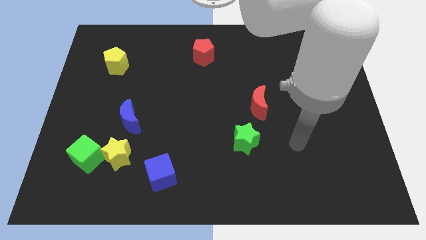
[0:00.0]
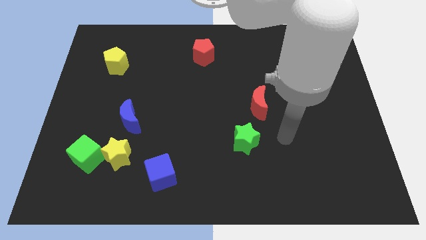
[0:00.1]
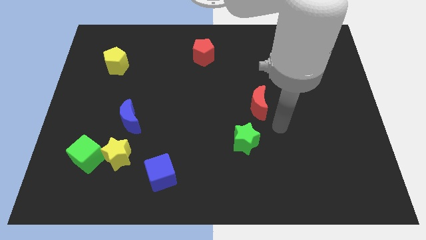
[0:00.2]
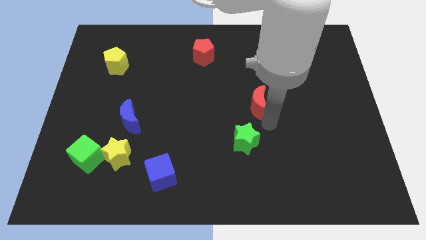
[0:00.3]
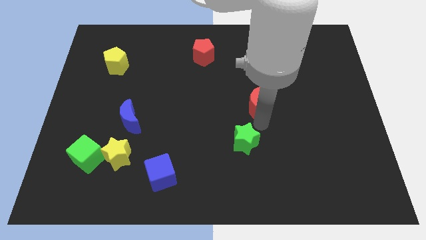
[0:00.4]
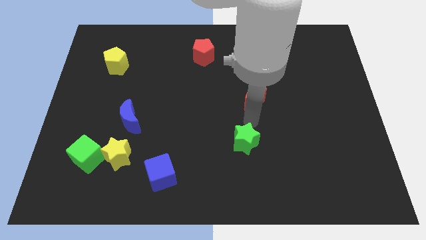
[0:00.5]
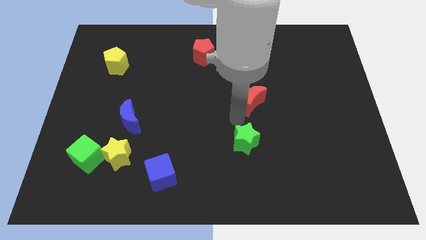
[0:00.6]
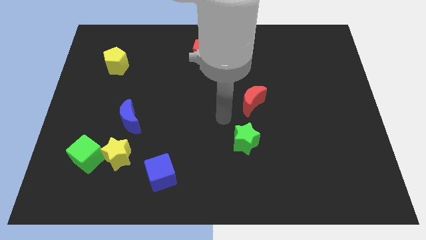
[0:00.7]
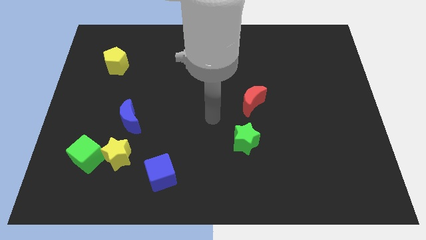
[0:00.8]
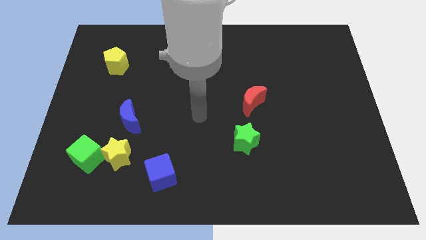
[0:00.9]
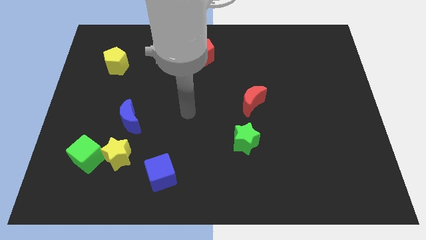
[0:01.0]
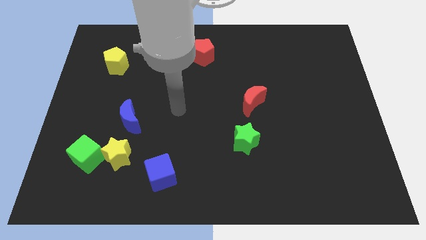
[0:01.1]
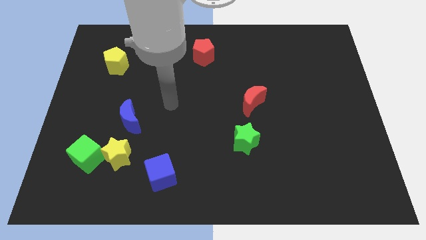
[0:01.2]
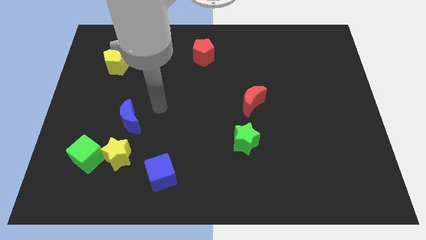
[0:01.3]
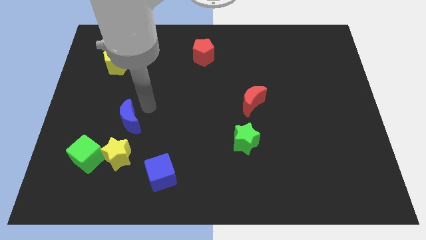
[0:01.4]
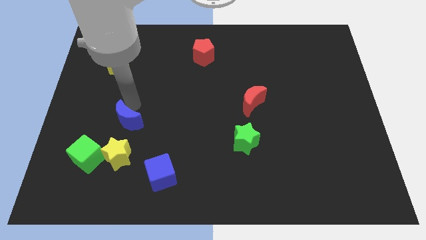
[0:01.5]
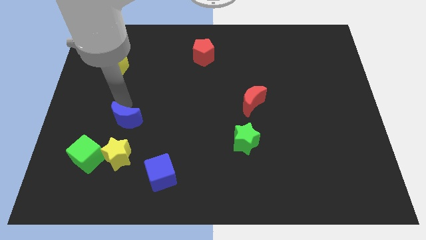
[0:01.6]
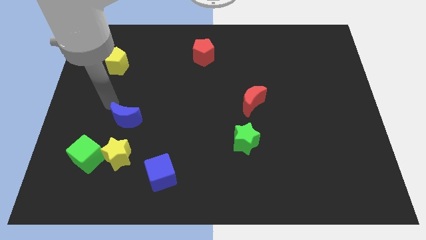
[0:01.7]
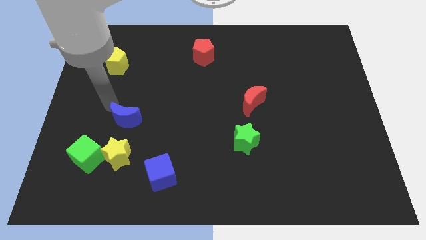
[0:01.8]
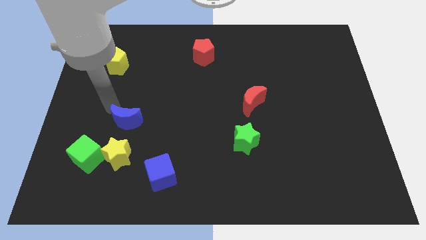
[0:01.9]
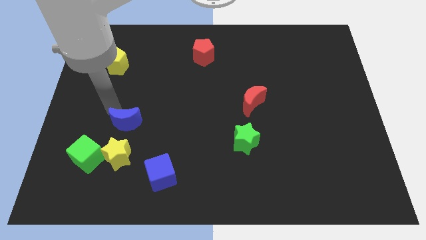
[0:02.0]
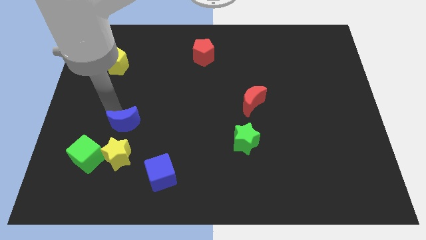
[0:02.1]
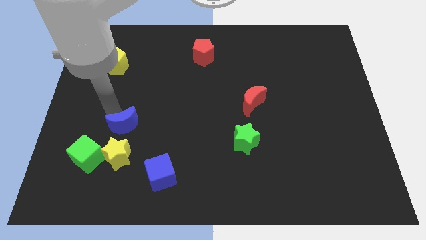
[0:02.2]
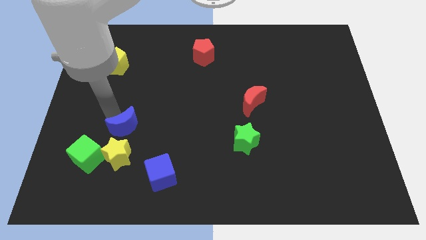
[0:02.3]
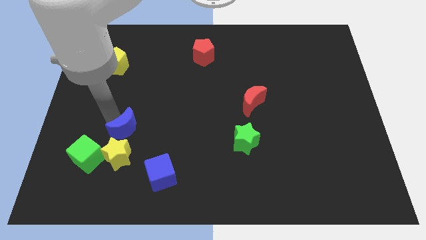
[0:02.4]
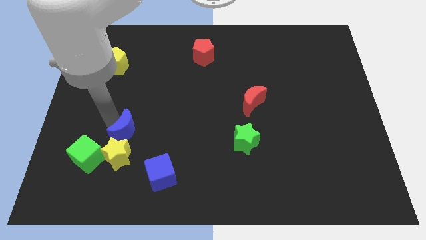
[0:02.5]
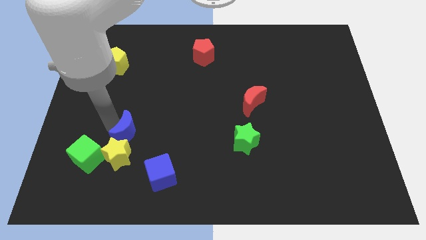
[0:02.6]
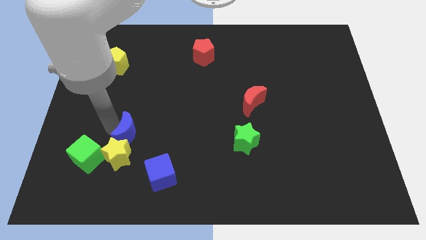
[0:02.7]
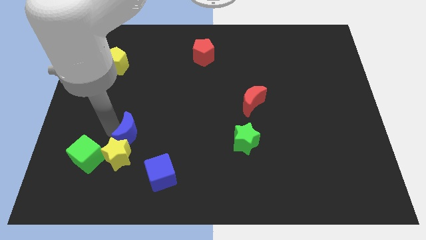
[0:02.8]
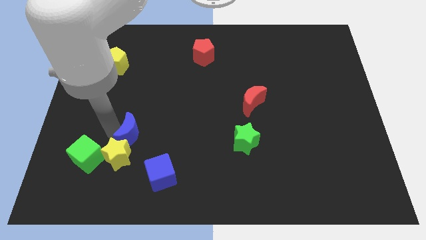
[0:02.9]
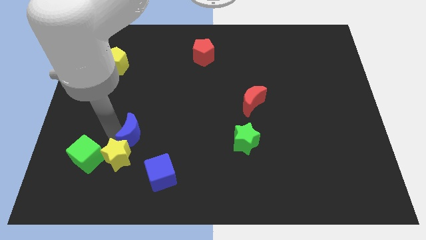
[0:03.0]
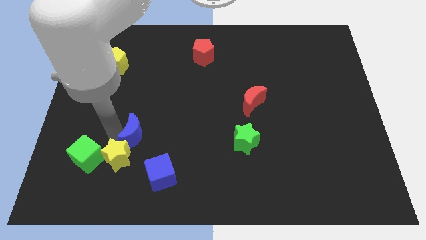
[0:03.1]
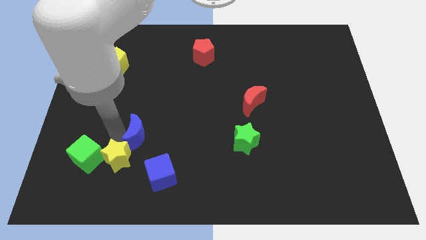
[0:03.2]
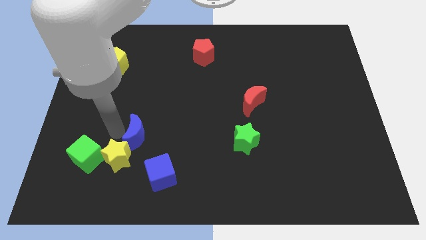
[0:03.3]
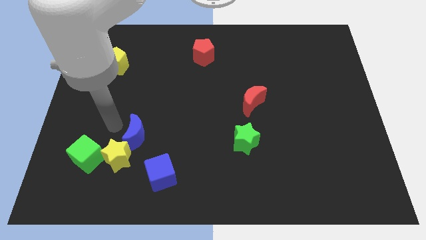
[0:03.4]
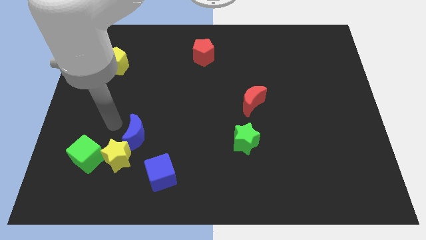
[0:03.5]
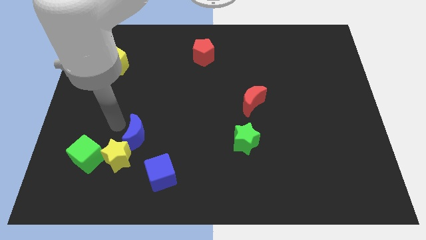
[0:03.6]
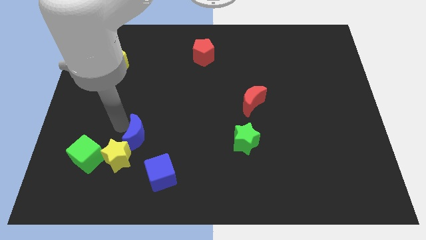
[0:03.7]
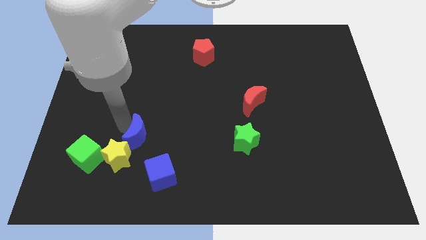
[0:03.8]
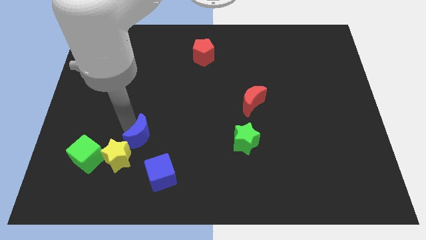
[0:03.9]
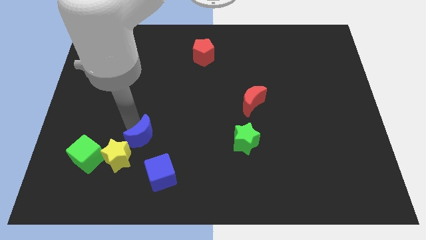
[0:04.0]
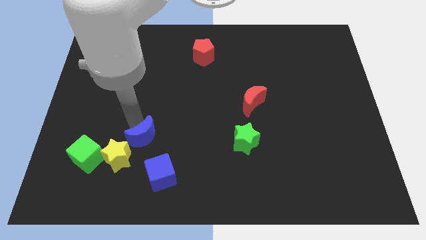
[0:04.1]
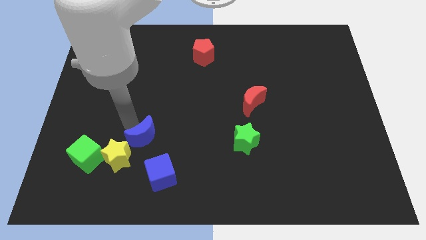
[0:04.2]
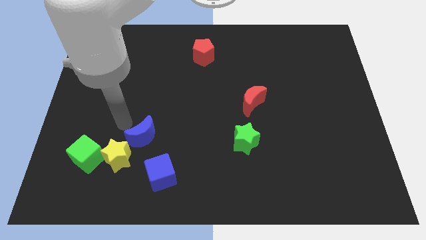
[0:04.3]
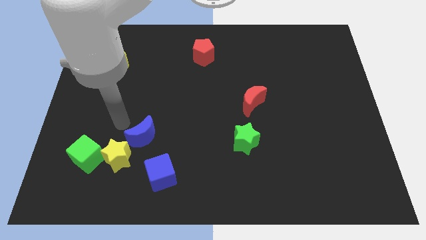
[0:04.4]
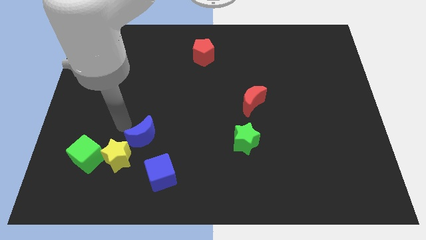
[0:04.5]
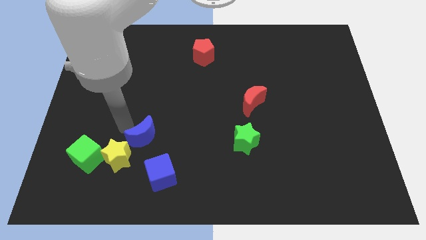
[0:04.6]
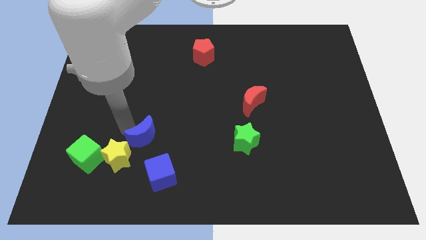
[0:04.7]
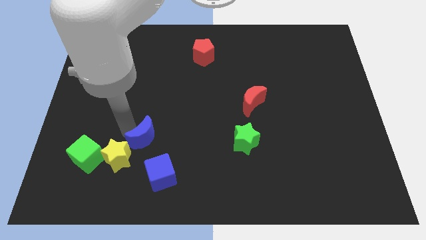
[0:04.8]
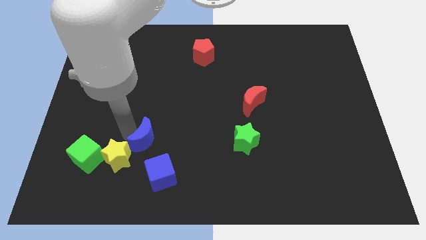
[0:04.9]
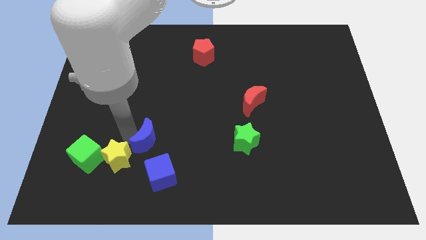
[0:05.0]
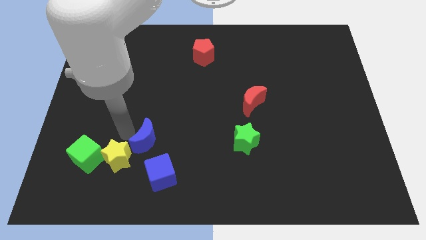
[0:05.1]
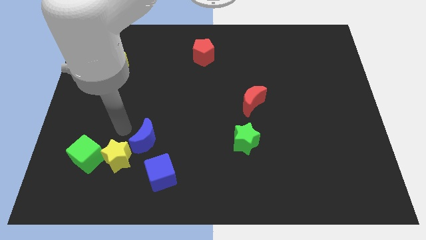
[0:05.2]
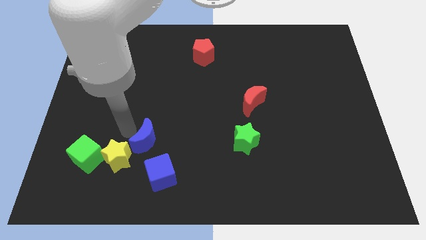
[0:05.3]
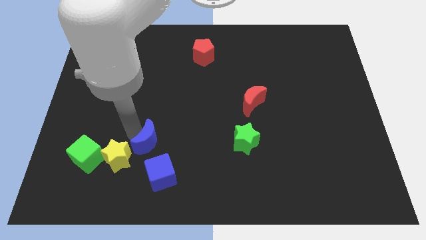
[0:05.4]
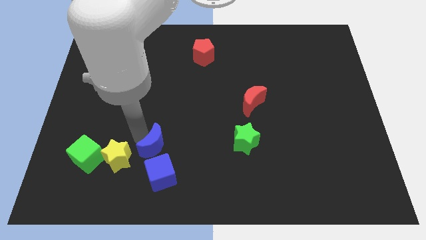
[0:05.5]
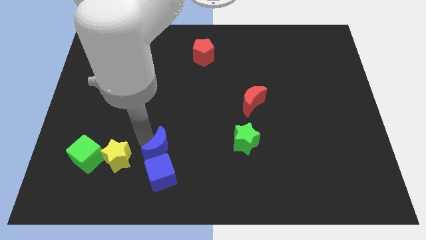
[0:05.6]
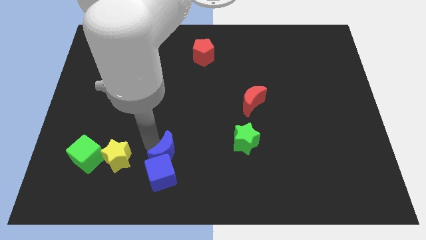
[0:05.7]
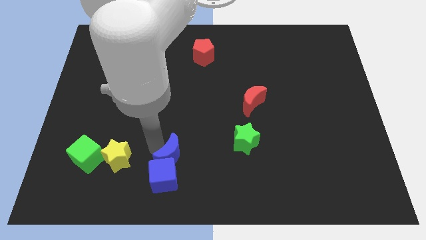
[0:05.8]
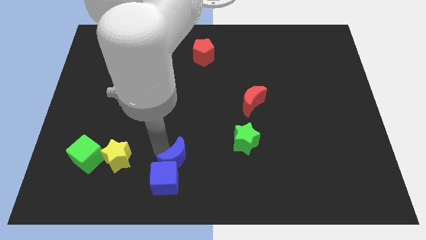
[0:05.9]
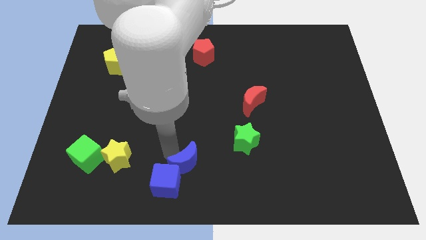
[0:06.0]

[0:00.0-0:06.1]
move the blue moon to the bottom side

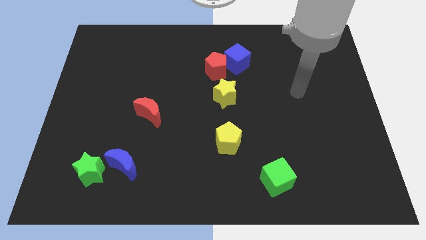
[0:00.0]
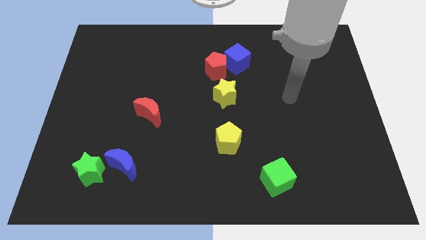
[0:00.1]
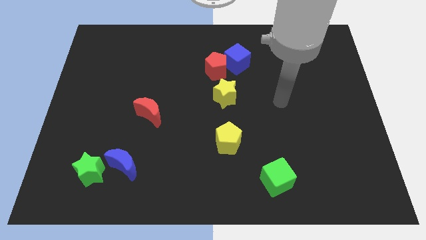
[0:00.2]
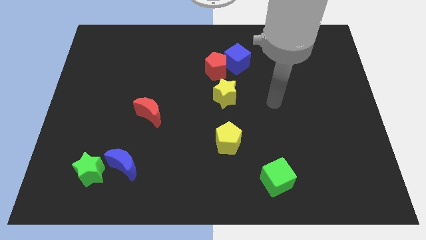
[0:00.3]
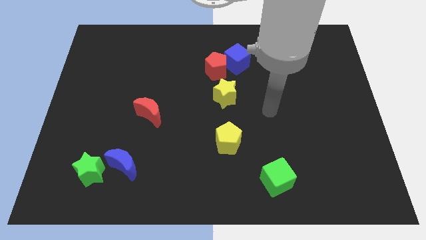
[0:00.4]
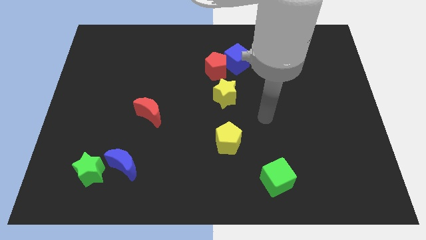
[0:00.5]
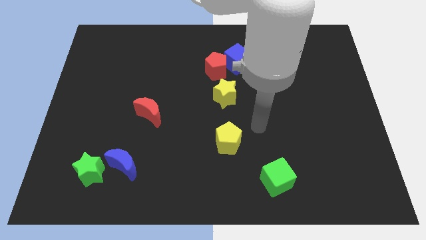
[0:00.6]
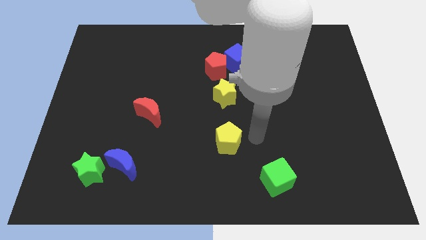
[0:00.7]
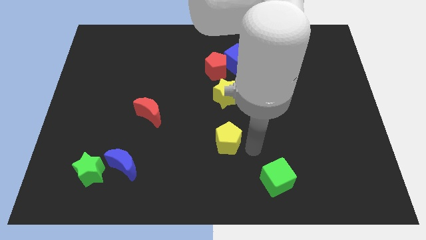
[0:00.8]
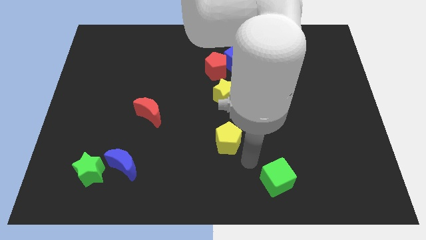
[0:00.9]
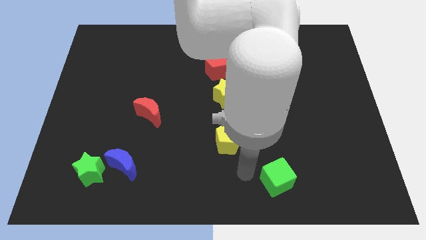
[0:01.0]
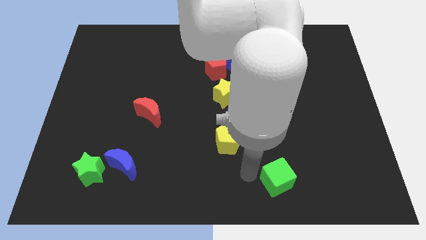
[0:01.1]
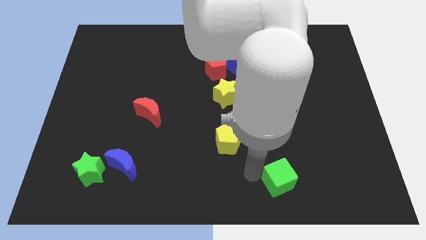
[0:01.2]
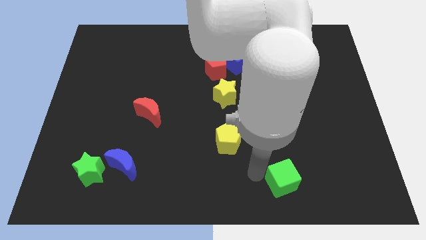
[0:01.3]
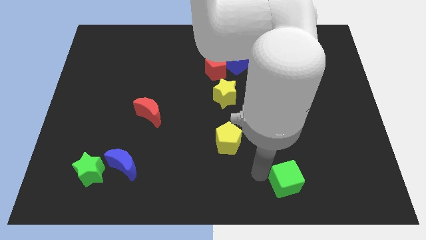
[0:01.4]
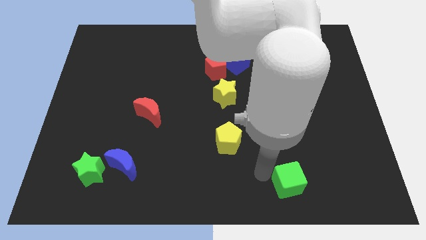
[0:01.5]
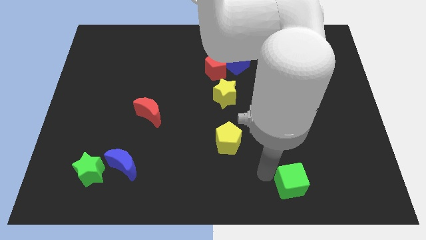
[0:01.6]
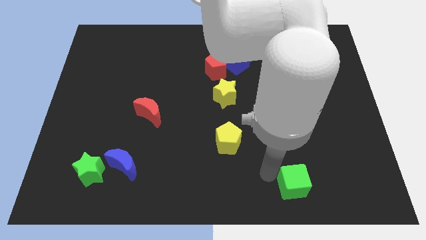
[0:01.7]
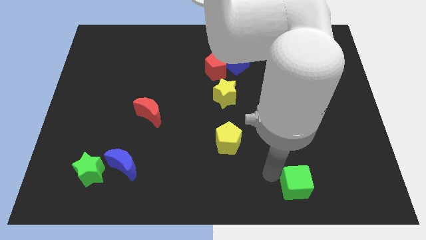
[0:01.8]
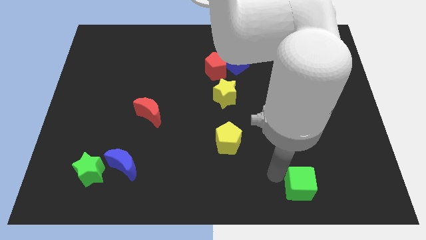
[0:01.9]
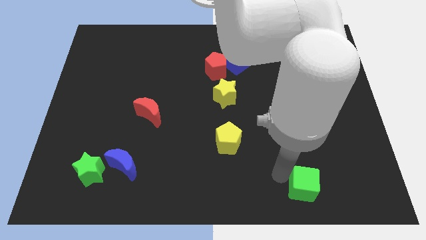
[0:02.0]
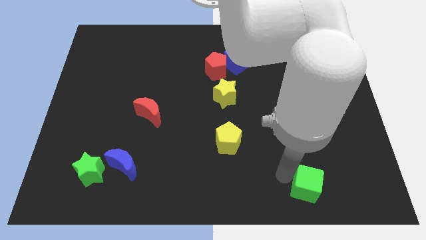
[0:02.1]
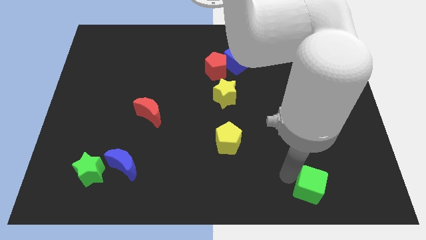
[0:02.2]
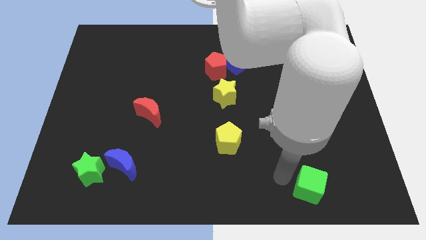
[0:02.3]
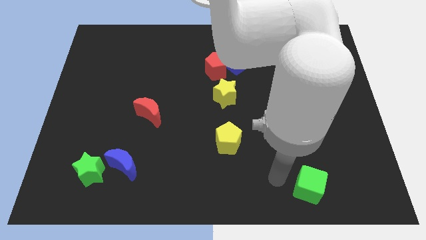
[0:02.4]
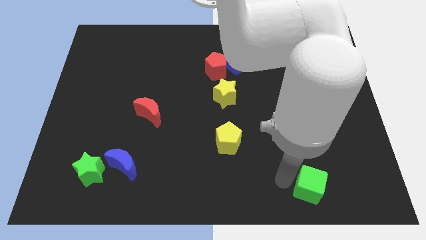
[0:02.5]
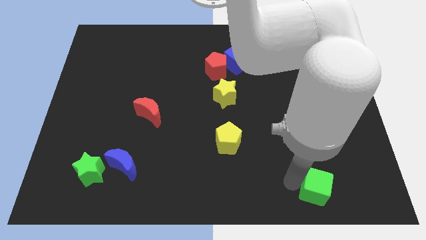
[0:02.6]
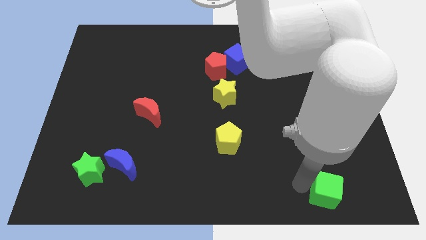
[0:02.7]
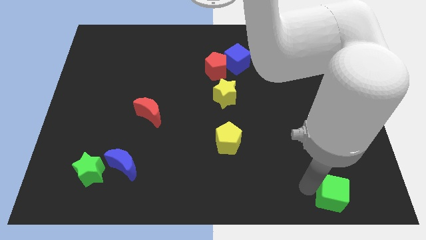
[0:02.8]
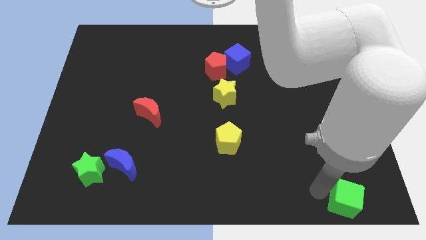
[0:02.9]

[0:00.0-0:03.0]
put the green cube to the lower right corner
